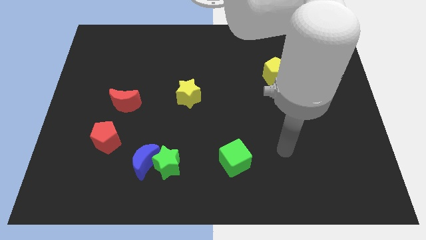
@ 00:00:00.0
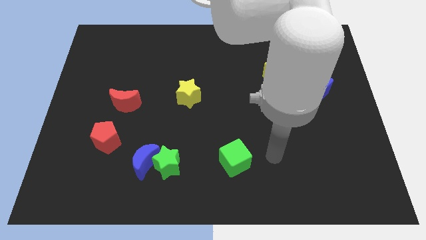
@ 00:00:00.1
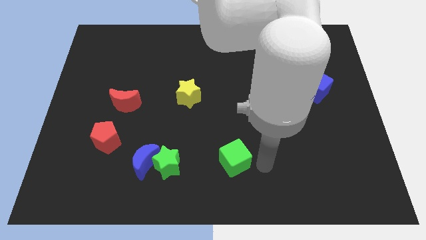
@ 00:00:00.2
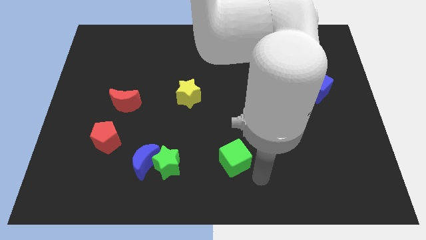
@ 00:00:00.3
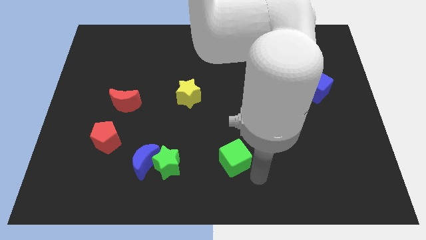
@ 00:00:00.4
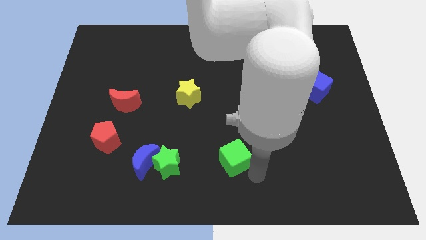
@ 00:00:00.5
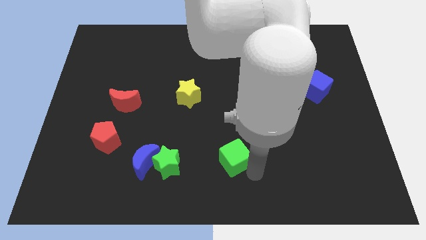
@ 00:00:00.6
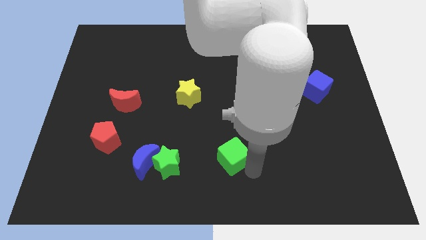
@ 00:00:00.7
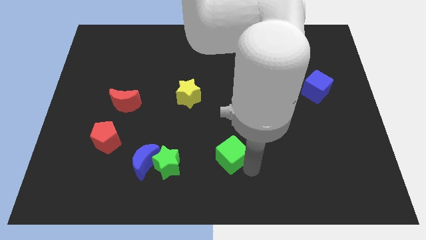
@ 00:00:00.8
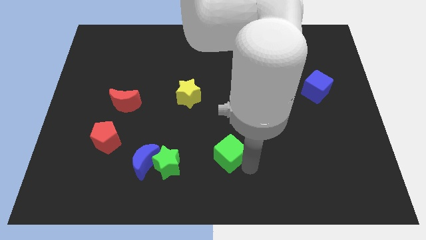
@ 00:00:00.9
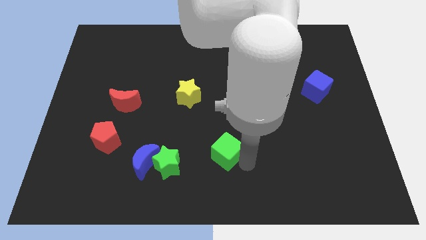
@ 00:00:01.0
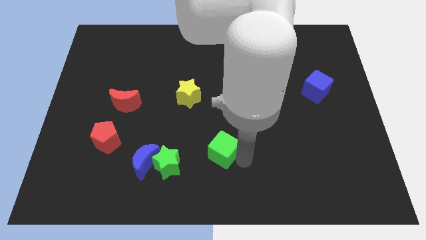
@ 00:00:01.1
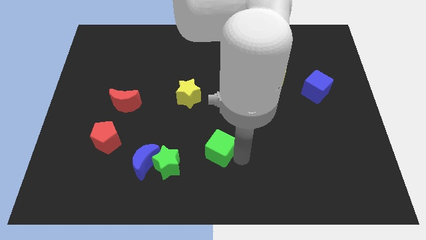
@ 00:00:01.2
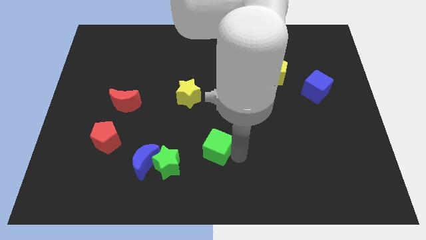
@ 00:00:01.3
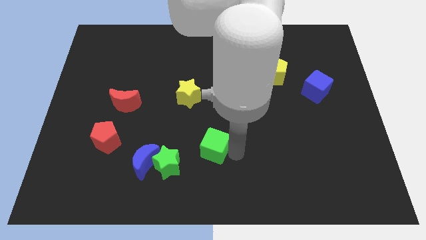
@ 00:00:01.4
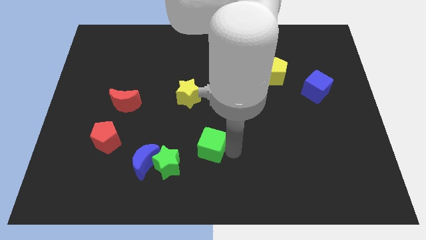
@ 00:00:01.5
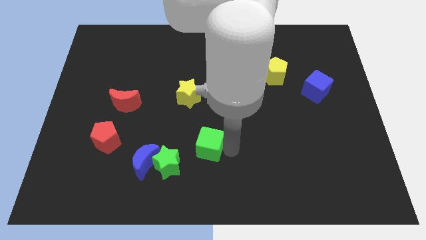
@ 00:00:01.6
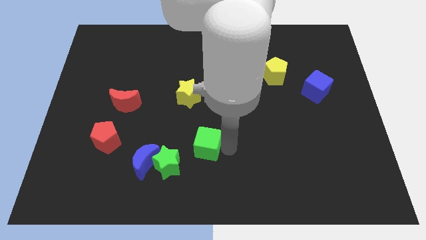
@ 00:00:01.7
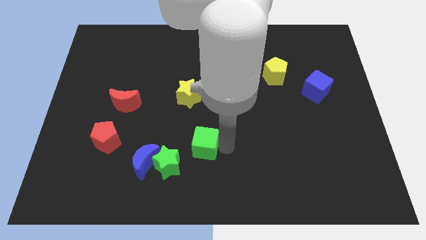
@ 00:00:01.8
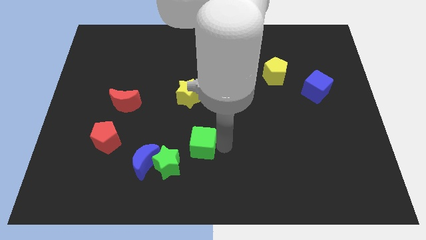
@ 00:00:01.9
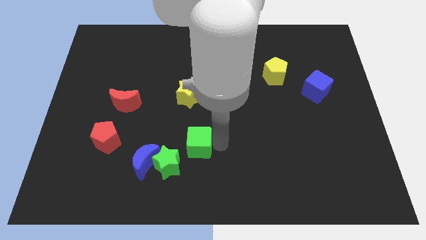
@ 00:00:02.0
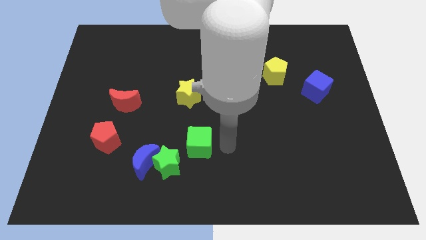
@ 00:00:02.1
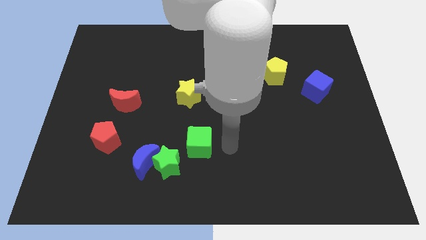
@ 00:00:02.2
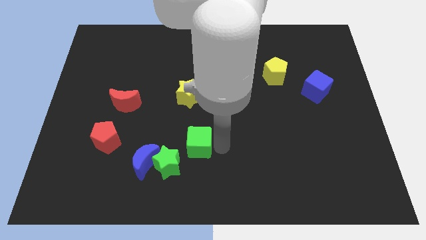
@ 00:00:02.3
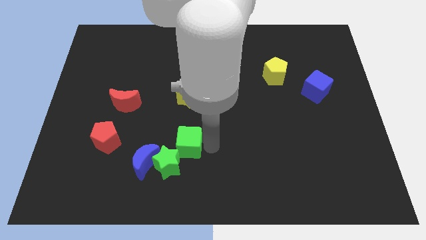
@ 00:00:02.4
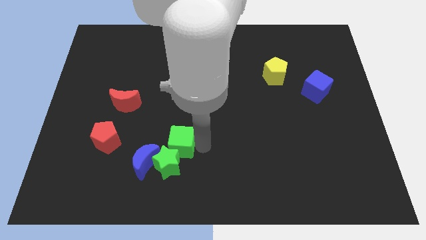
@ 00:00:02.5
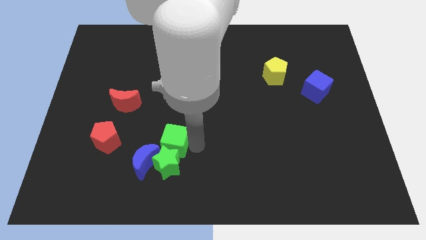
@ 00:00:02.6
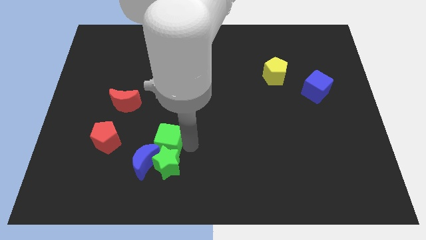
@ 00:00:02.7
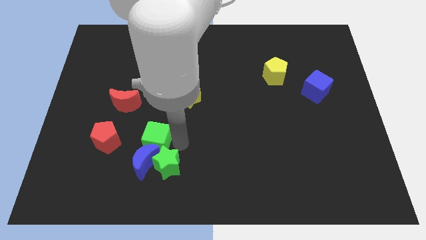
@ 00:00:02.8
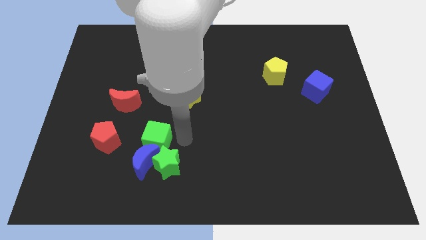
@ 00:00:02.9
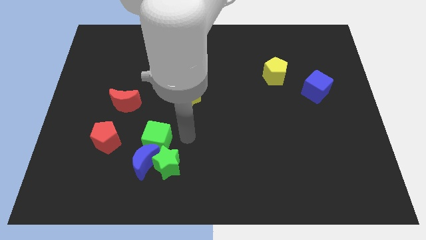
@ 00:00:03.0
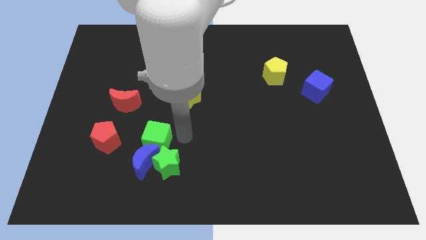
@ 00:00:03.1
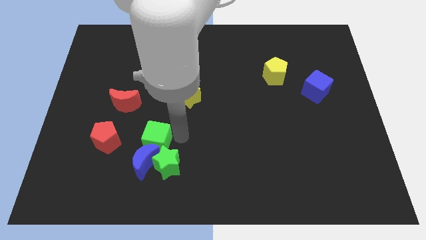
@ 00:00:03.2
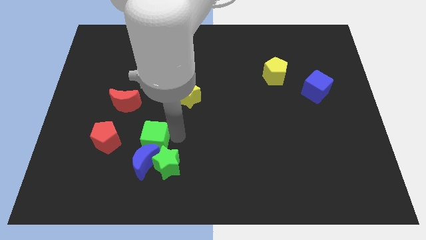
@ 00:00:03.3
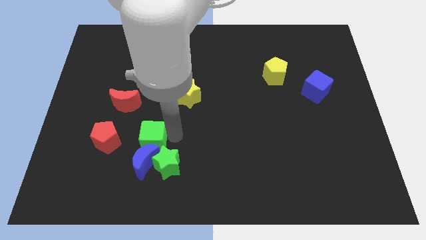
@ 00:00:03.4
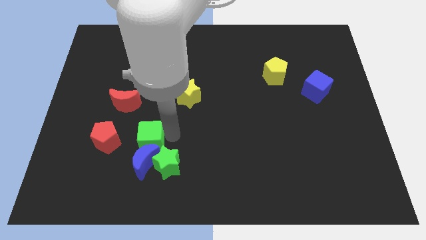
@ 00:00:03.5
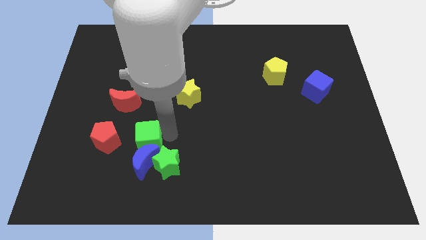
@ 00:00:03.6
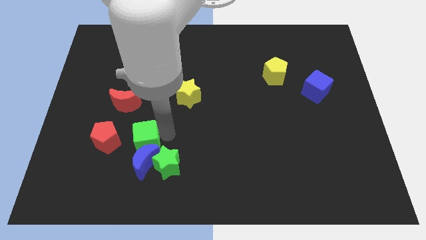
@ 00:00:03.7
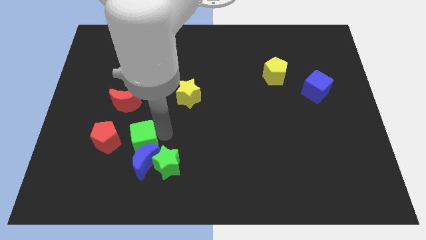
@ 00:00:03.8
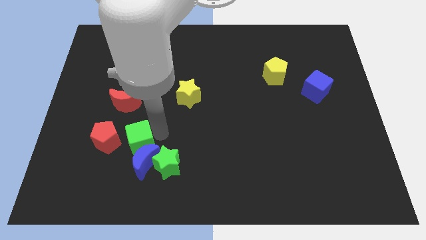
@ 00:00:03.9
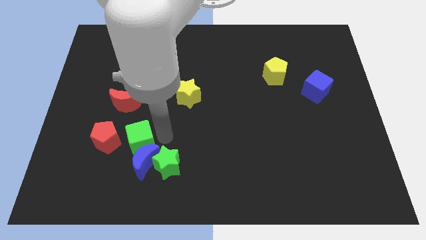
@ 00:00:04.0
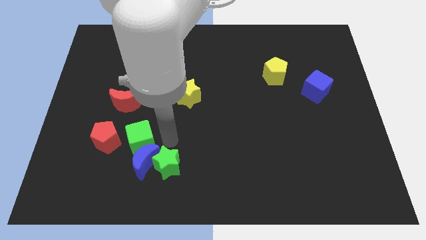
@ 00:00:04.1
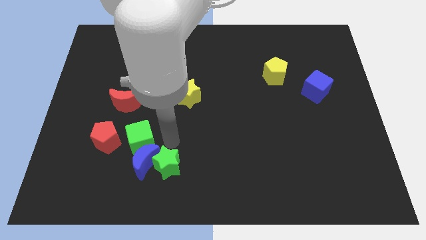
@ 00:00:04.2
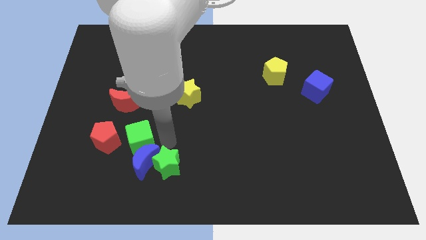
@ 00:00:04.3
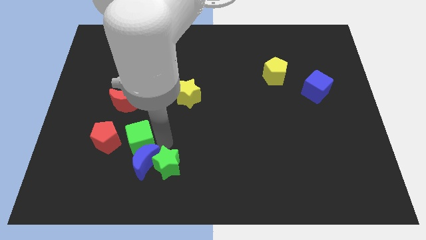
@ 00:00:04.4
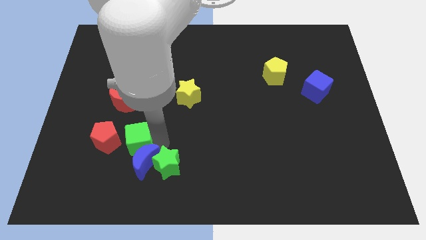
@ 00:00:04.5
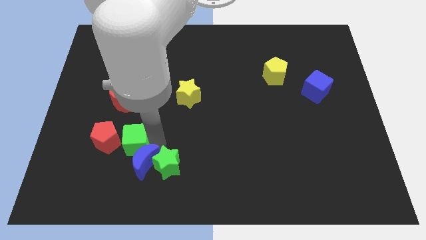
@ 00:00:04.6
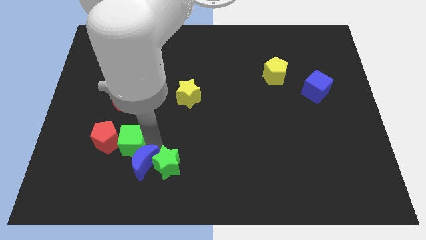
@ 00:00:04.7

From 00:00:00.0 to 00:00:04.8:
slide the green cube to the red pentagon

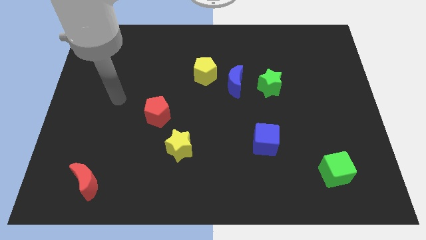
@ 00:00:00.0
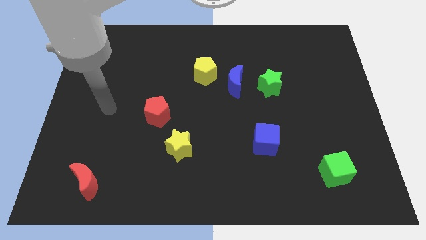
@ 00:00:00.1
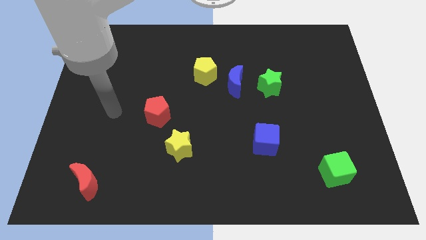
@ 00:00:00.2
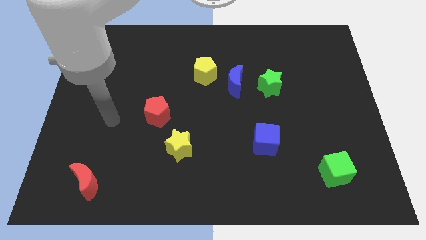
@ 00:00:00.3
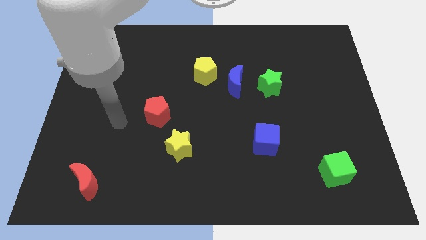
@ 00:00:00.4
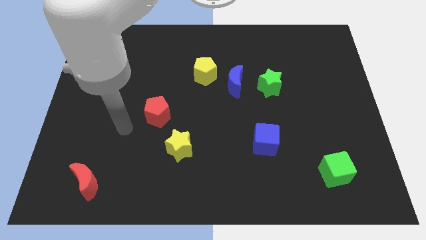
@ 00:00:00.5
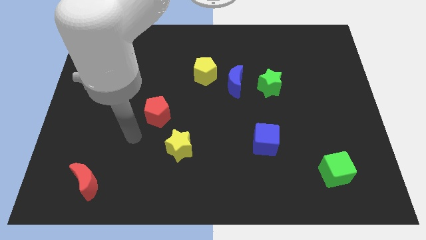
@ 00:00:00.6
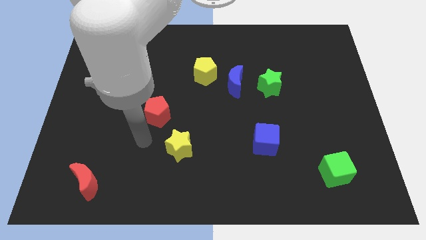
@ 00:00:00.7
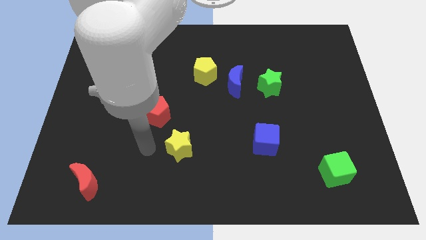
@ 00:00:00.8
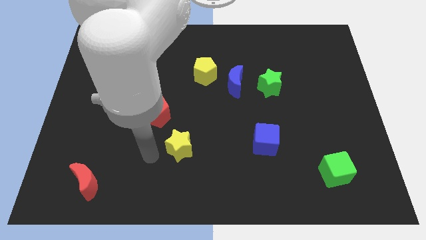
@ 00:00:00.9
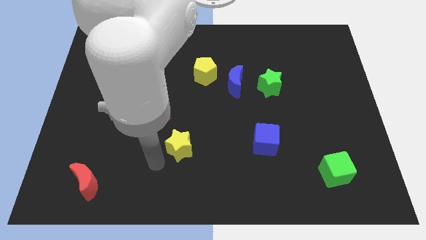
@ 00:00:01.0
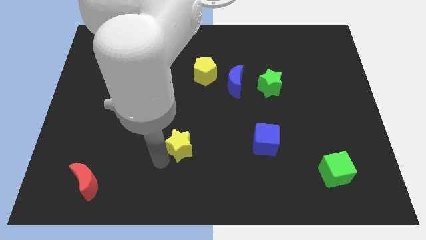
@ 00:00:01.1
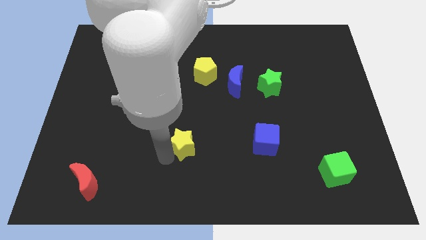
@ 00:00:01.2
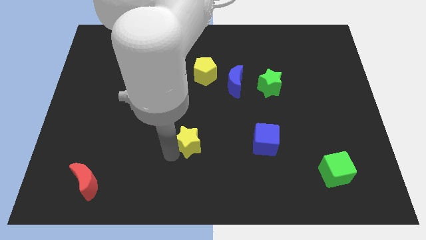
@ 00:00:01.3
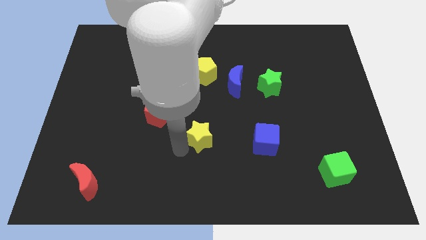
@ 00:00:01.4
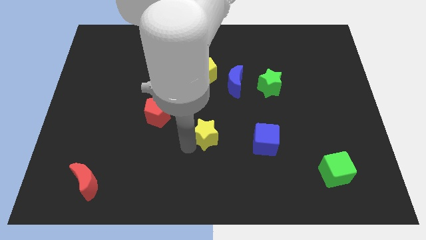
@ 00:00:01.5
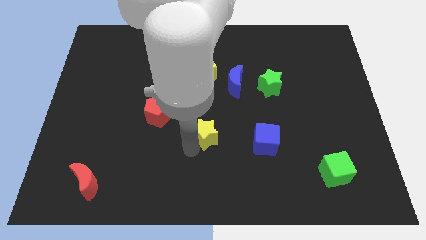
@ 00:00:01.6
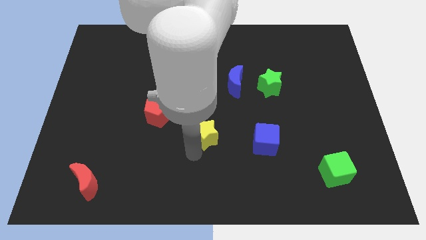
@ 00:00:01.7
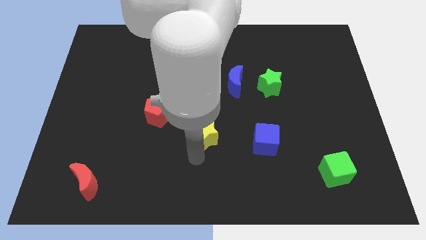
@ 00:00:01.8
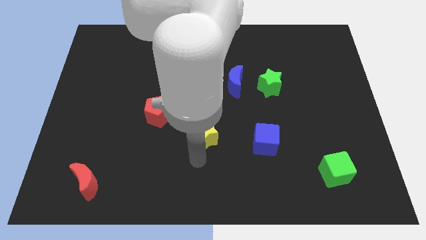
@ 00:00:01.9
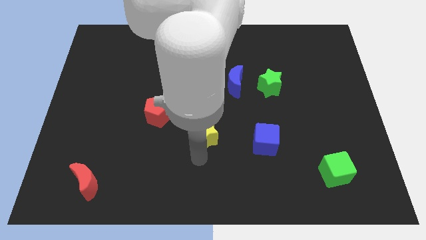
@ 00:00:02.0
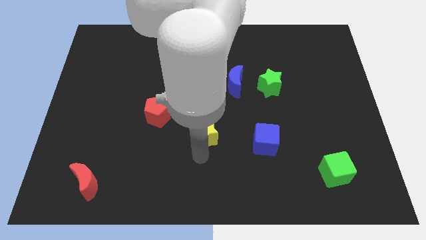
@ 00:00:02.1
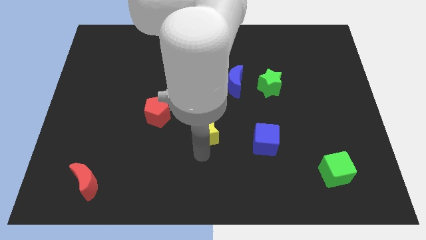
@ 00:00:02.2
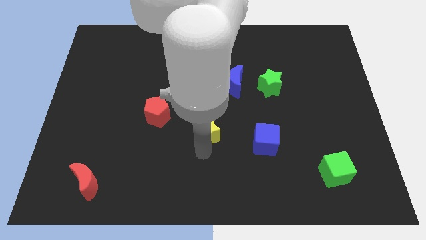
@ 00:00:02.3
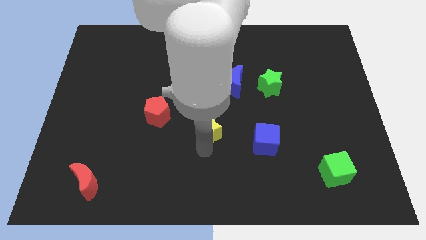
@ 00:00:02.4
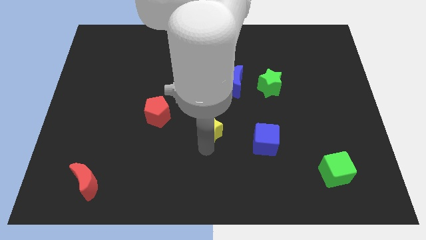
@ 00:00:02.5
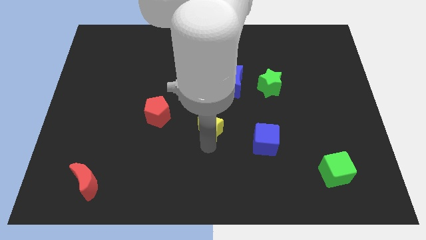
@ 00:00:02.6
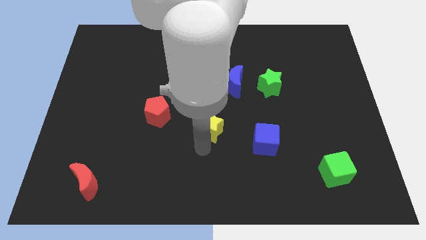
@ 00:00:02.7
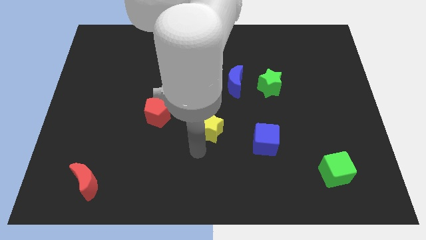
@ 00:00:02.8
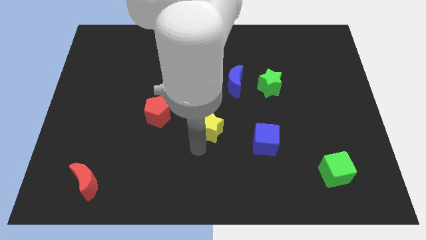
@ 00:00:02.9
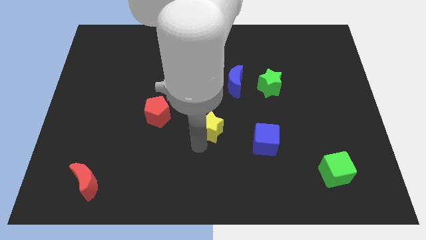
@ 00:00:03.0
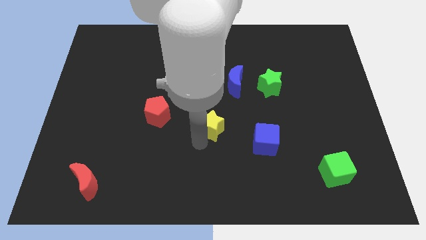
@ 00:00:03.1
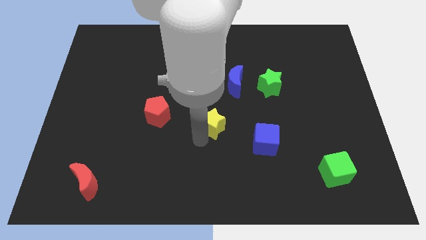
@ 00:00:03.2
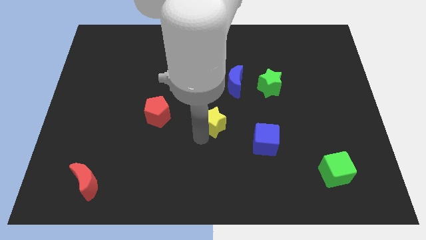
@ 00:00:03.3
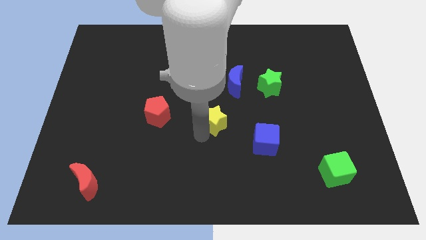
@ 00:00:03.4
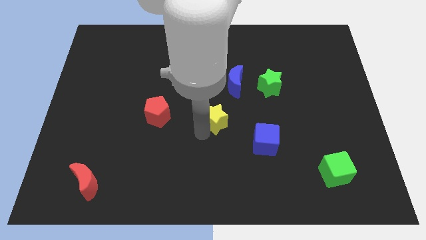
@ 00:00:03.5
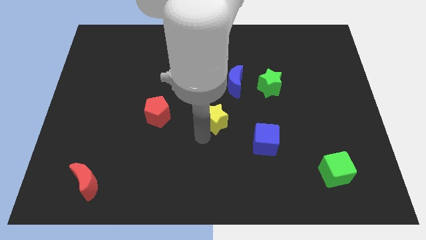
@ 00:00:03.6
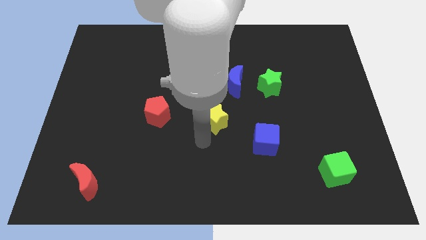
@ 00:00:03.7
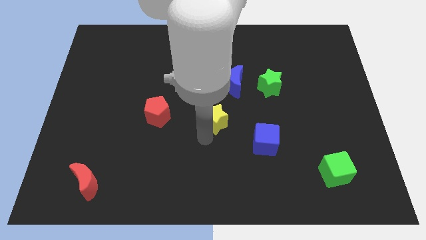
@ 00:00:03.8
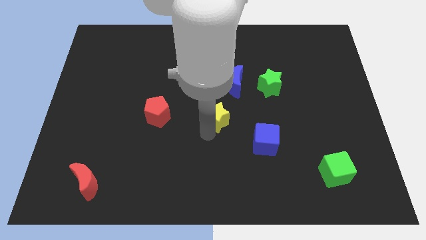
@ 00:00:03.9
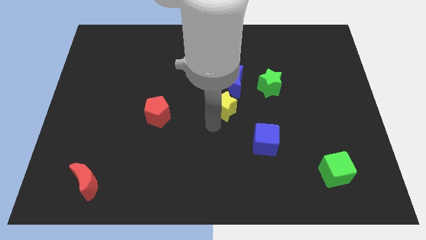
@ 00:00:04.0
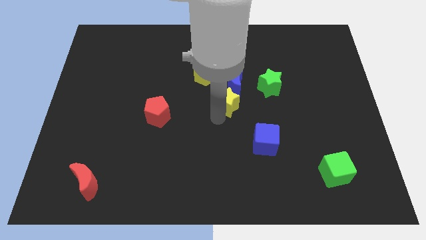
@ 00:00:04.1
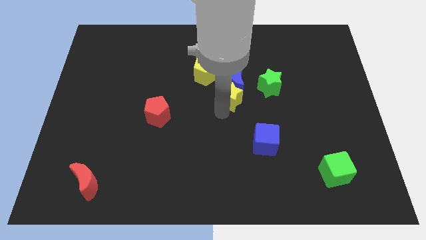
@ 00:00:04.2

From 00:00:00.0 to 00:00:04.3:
slide the yellow star towards the blue moon
